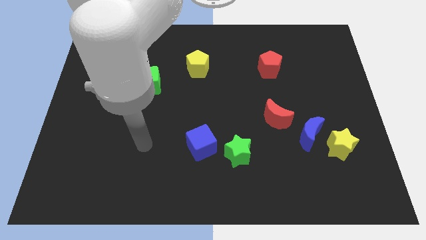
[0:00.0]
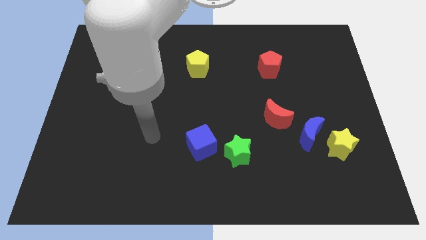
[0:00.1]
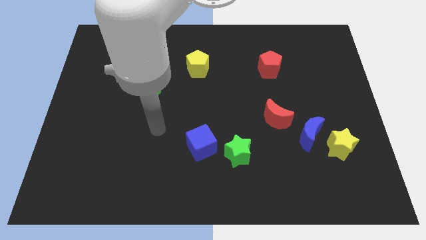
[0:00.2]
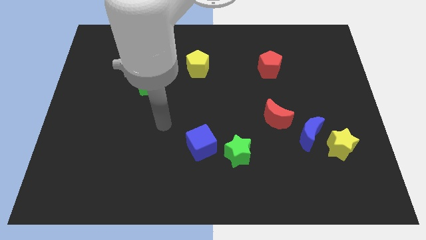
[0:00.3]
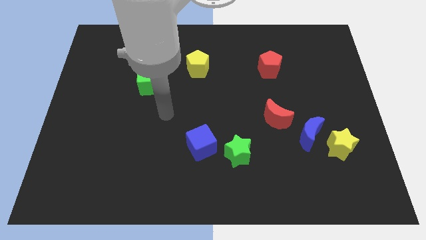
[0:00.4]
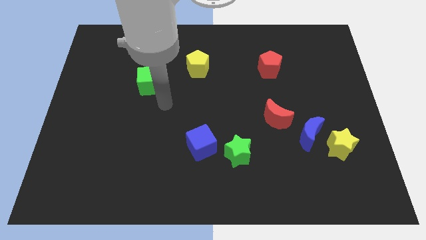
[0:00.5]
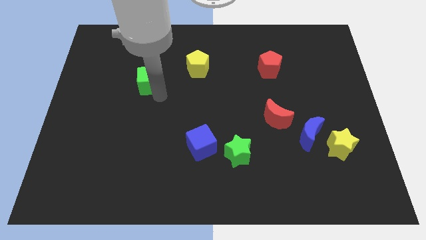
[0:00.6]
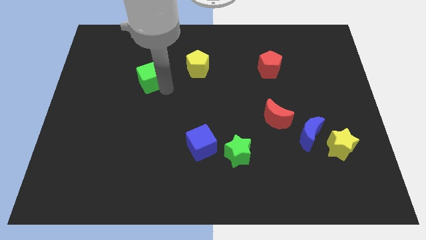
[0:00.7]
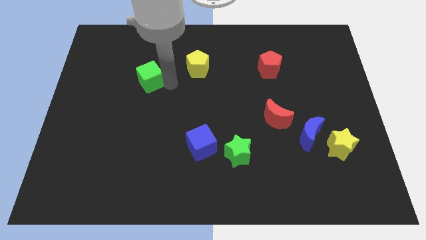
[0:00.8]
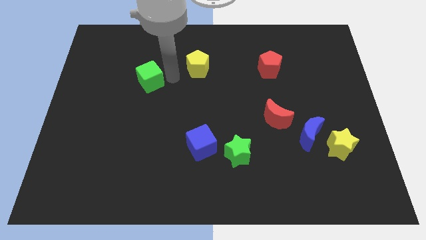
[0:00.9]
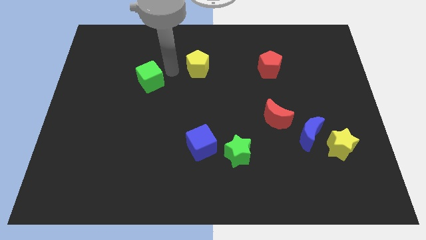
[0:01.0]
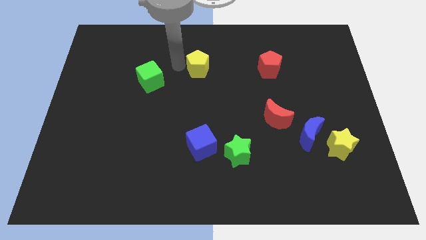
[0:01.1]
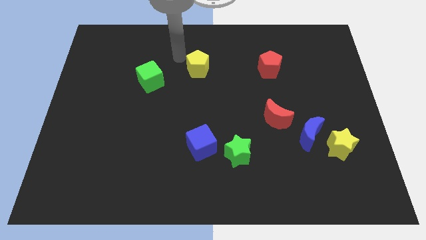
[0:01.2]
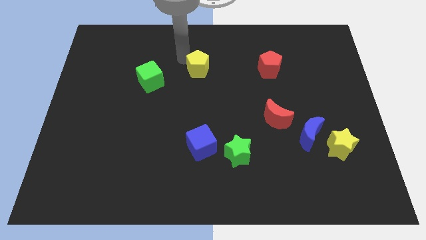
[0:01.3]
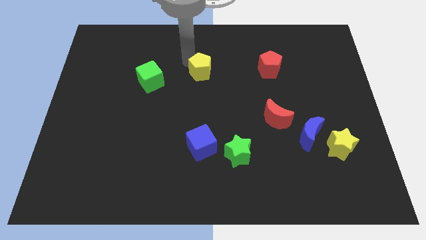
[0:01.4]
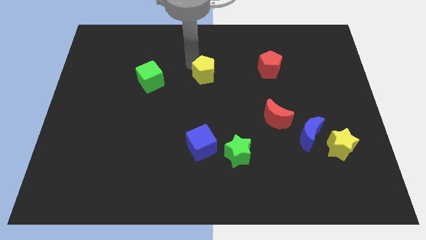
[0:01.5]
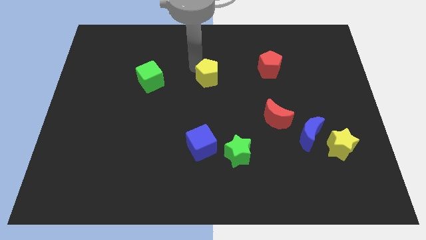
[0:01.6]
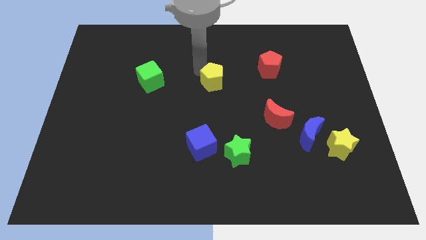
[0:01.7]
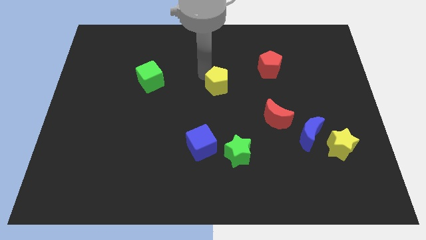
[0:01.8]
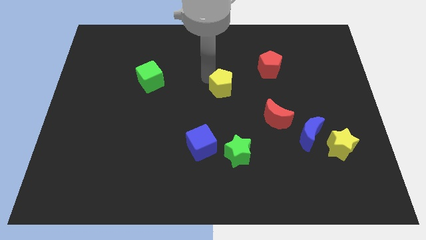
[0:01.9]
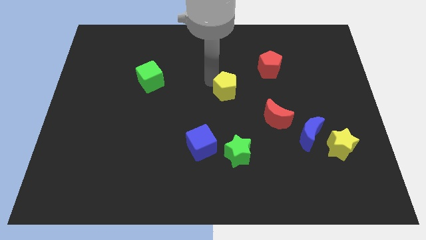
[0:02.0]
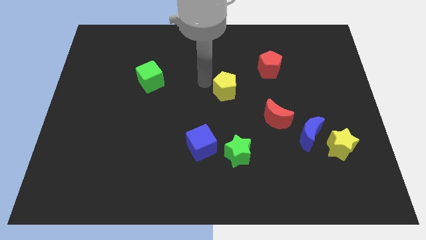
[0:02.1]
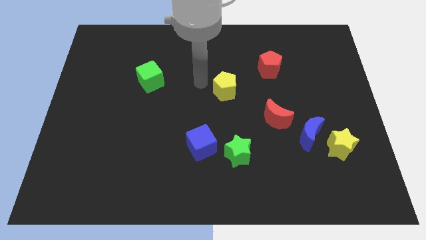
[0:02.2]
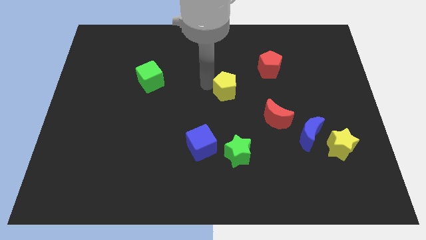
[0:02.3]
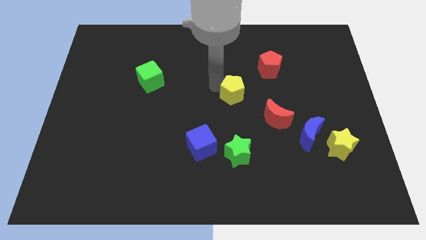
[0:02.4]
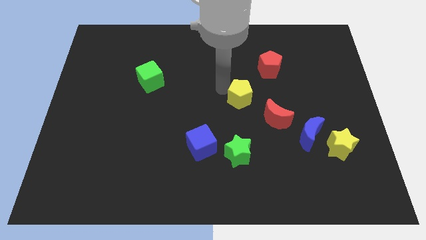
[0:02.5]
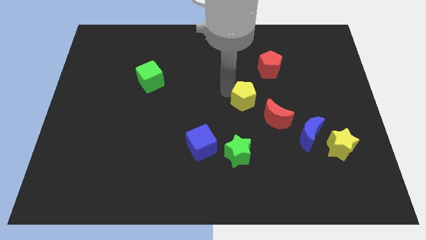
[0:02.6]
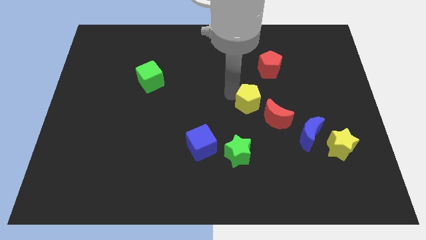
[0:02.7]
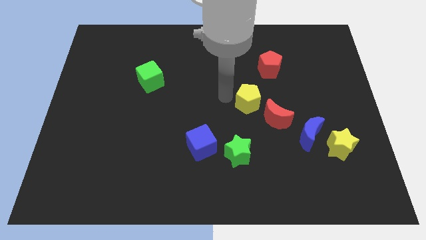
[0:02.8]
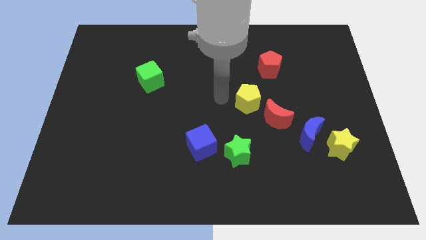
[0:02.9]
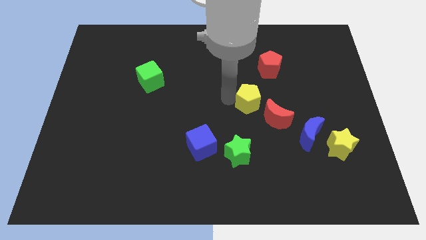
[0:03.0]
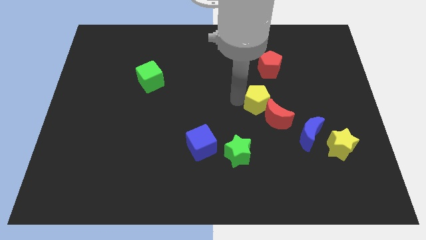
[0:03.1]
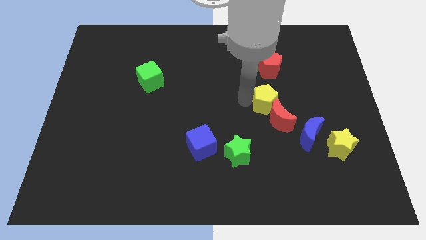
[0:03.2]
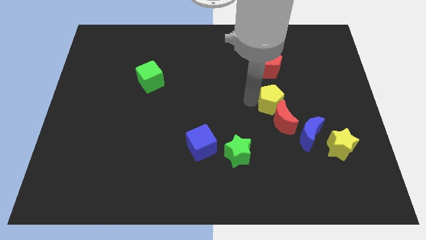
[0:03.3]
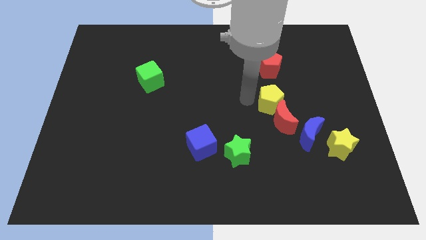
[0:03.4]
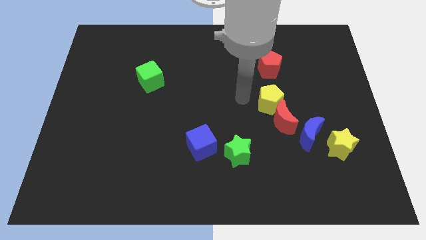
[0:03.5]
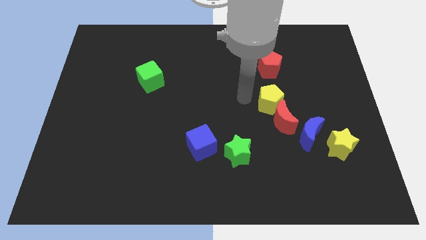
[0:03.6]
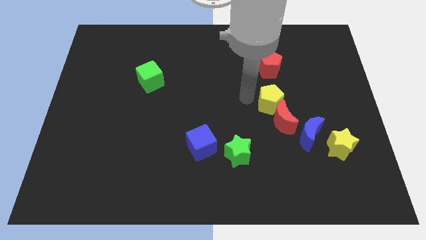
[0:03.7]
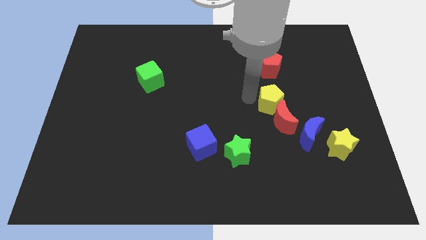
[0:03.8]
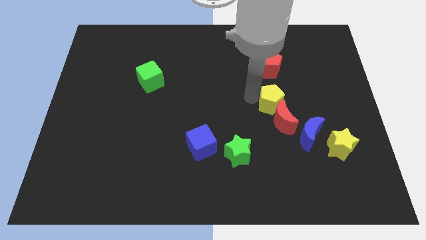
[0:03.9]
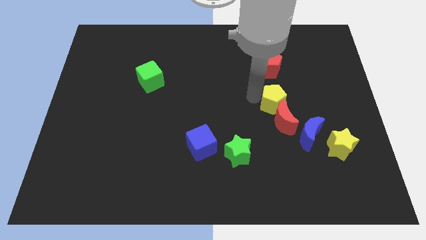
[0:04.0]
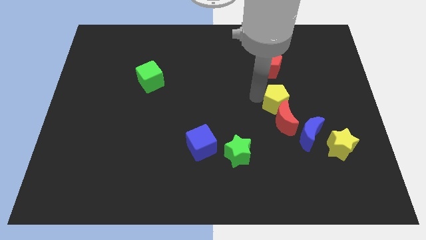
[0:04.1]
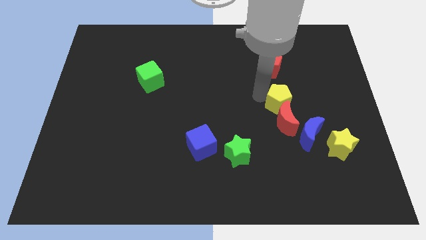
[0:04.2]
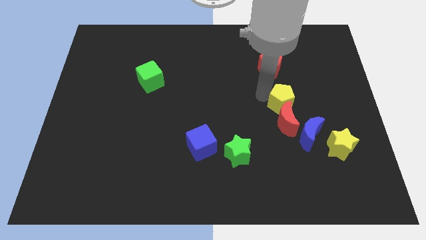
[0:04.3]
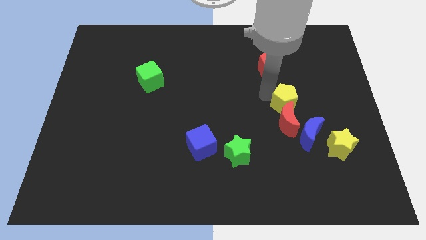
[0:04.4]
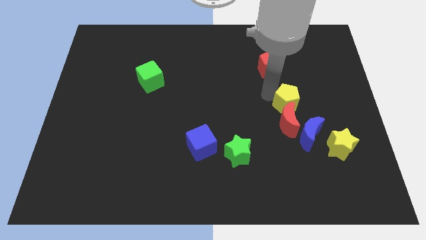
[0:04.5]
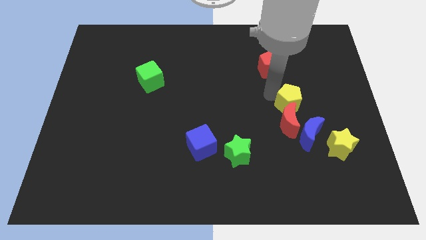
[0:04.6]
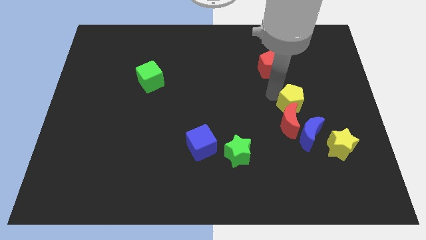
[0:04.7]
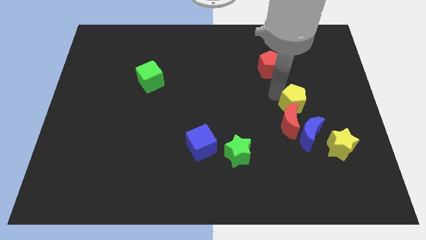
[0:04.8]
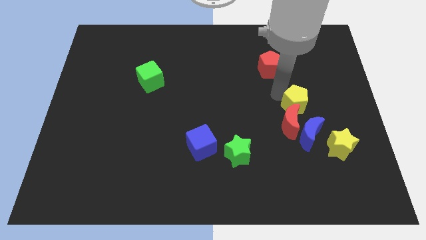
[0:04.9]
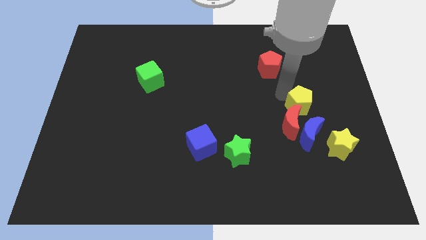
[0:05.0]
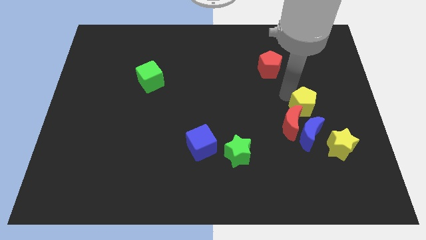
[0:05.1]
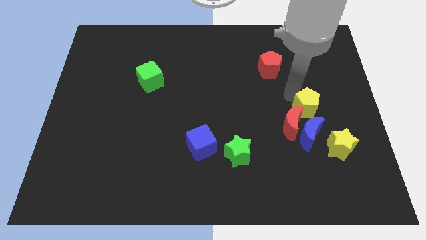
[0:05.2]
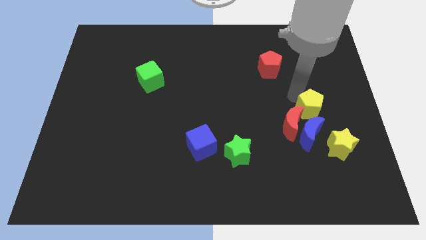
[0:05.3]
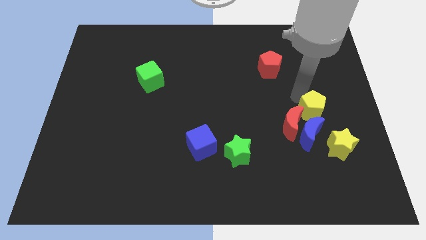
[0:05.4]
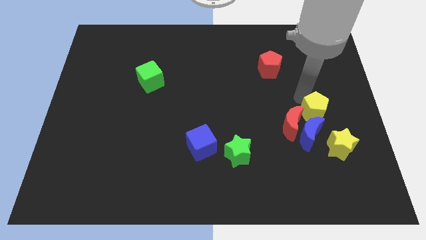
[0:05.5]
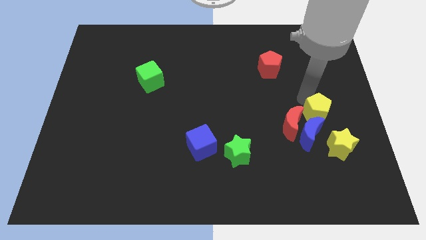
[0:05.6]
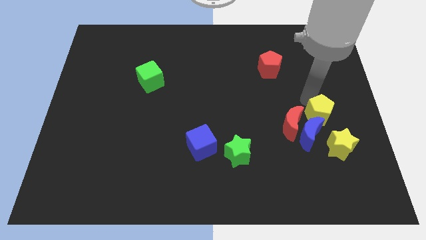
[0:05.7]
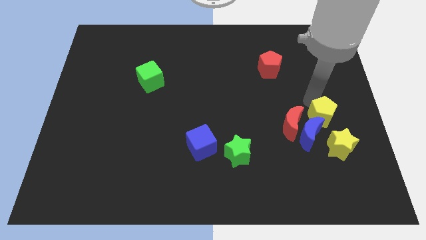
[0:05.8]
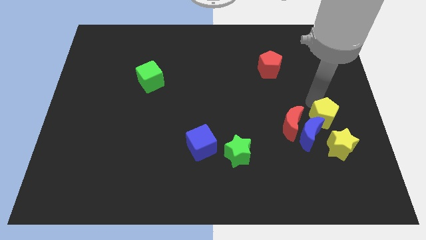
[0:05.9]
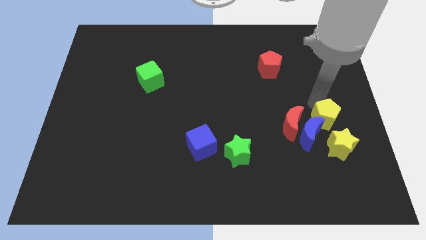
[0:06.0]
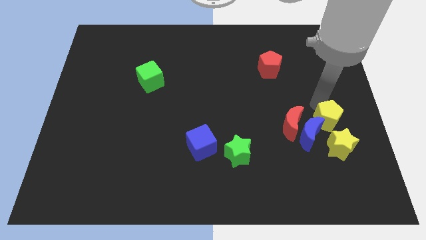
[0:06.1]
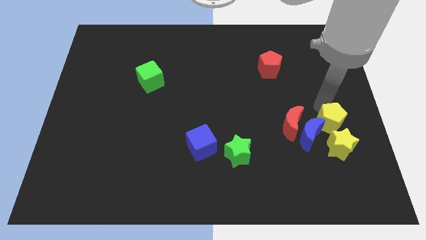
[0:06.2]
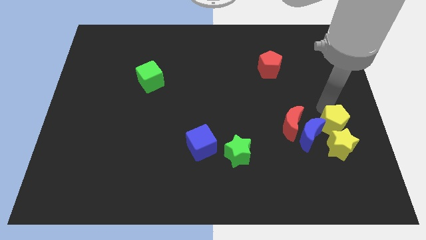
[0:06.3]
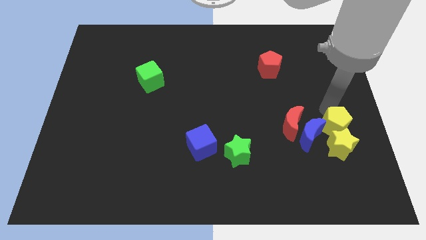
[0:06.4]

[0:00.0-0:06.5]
push the yellow pentagon close to the yellow star
